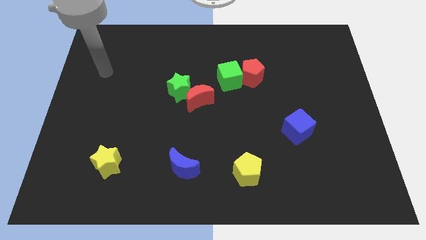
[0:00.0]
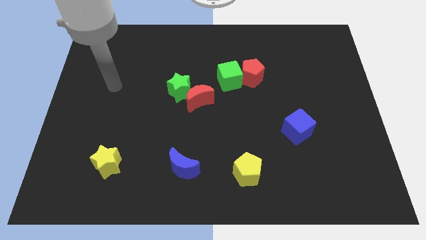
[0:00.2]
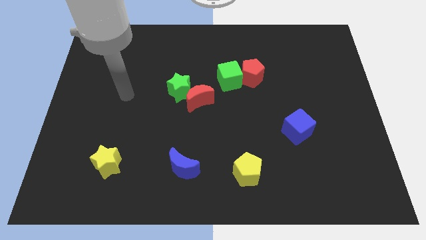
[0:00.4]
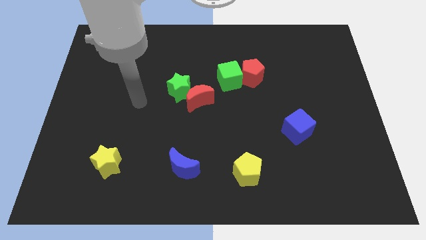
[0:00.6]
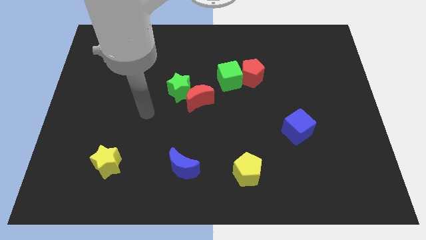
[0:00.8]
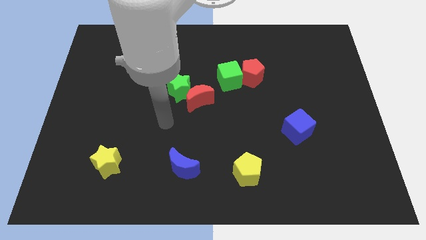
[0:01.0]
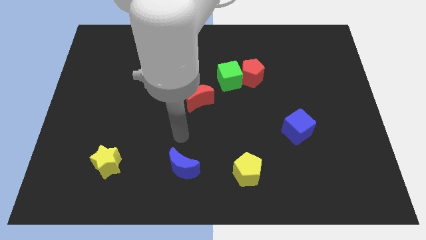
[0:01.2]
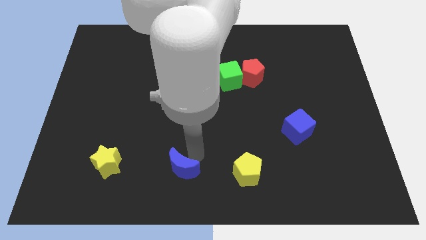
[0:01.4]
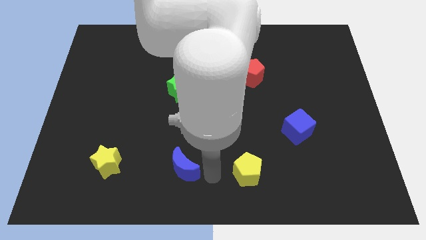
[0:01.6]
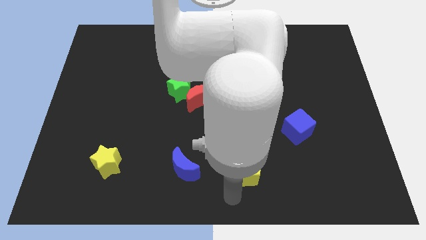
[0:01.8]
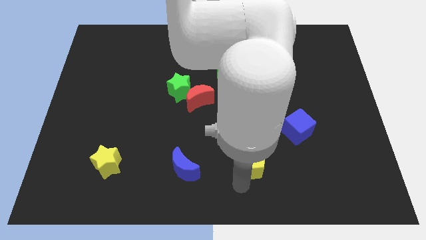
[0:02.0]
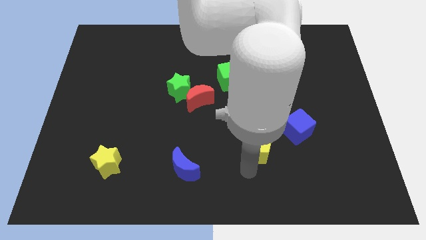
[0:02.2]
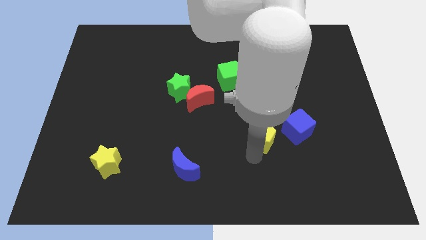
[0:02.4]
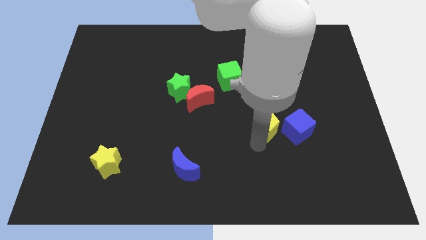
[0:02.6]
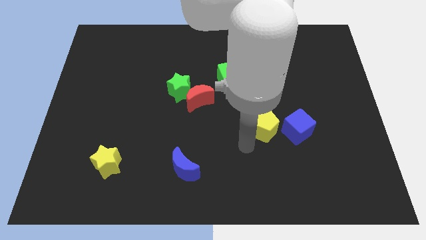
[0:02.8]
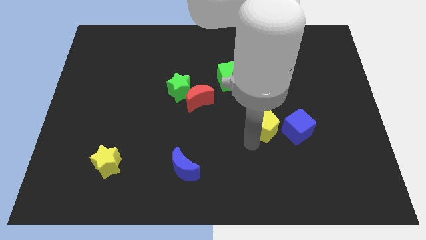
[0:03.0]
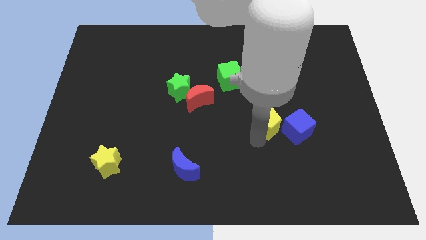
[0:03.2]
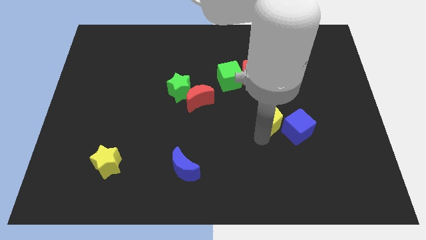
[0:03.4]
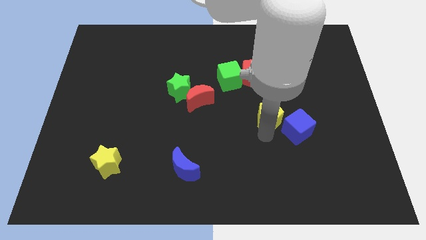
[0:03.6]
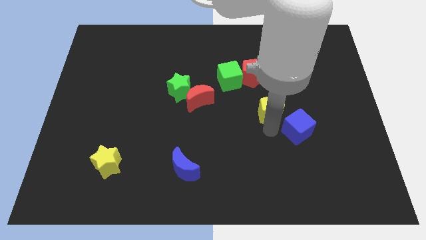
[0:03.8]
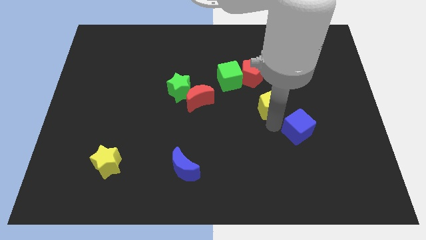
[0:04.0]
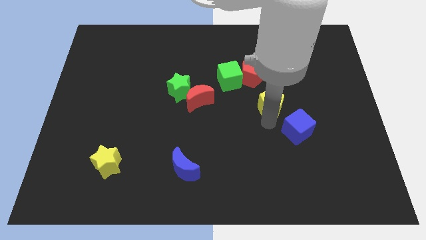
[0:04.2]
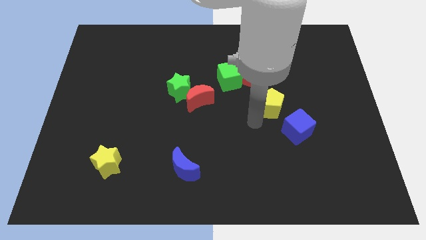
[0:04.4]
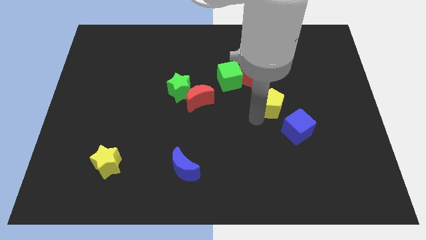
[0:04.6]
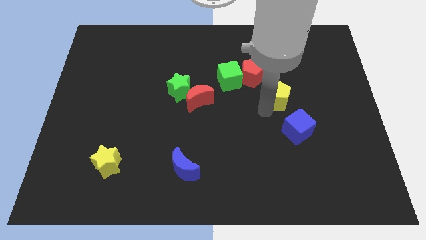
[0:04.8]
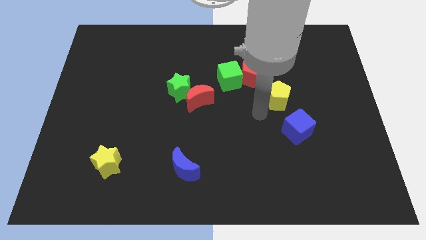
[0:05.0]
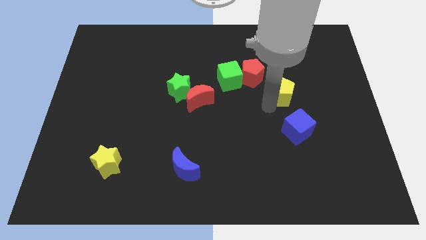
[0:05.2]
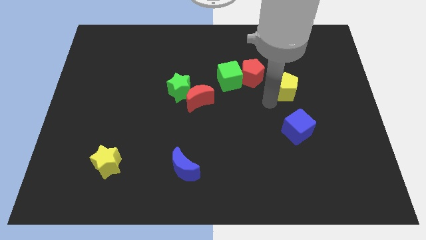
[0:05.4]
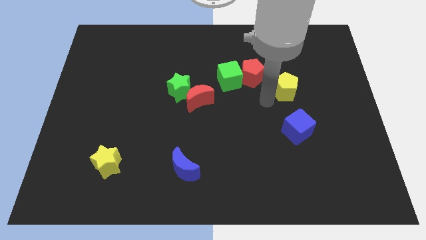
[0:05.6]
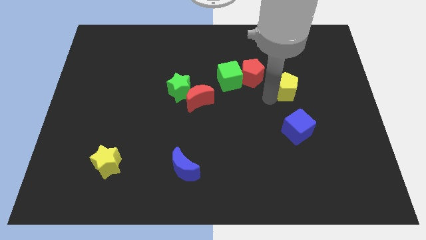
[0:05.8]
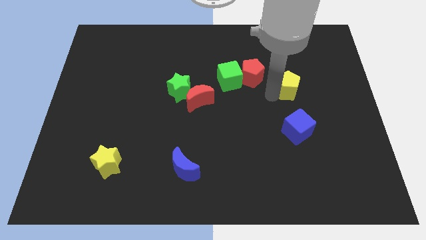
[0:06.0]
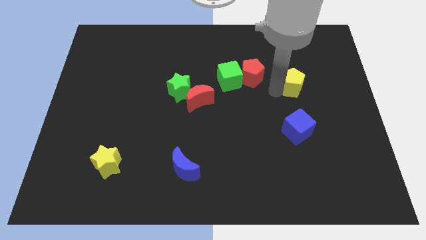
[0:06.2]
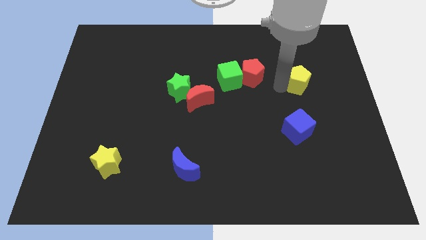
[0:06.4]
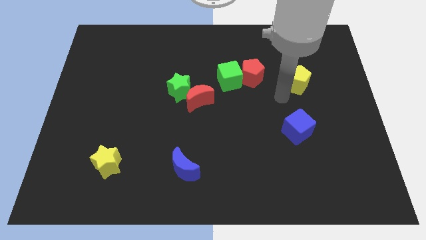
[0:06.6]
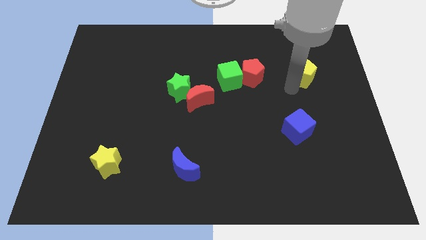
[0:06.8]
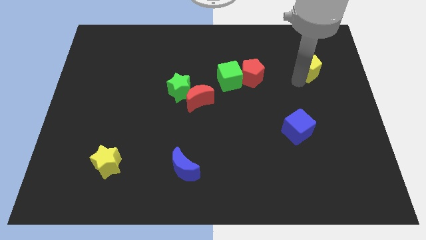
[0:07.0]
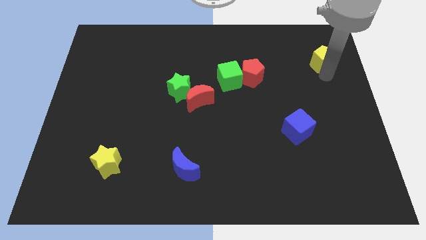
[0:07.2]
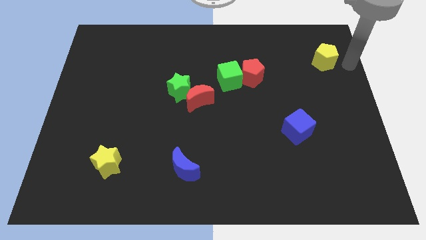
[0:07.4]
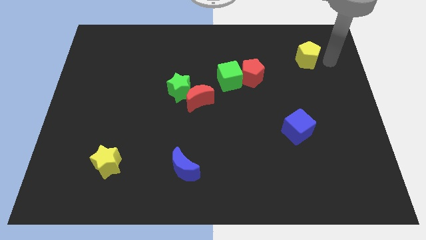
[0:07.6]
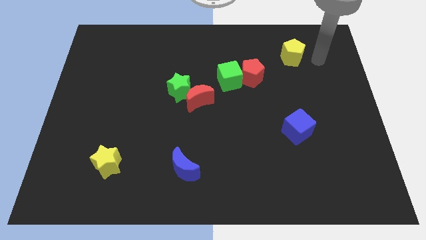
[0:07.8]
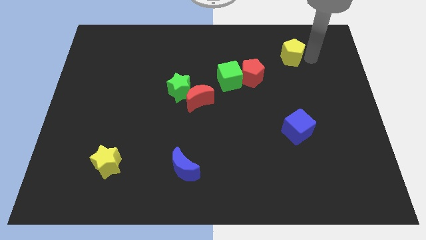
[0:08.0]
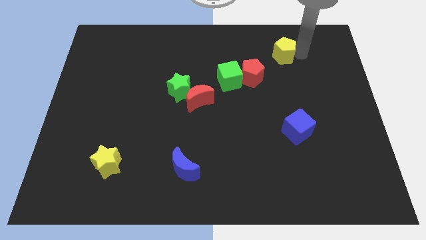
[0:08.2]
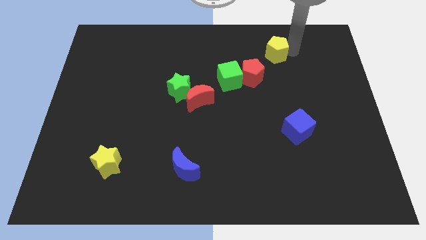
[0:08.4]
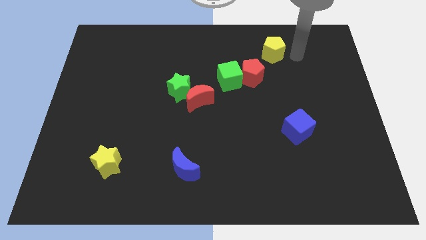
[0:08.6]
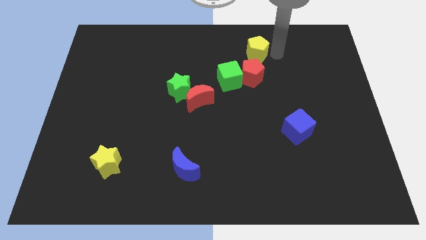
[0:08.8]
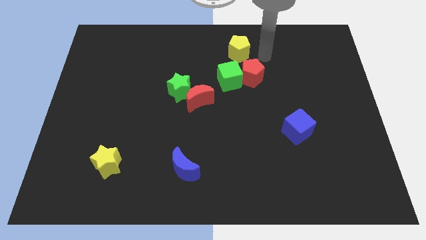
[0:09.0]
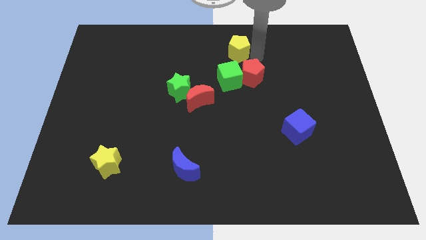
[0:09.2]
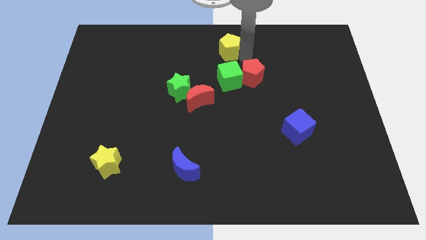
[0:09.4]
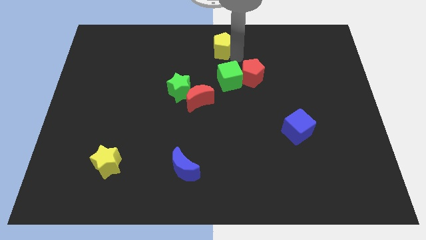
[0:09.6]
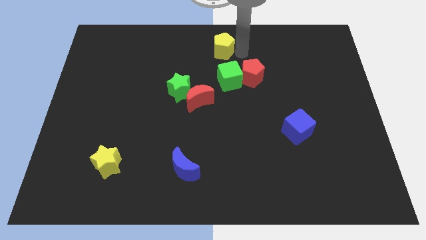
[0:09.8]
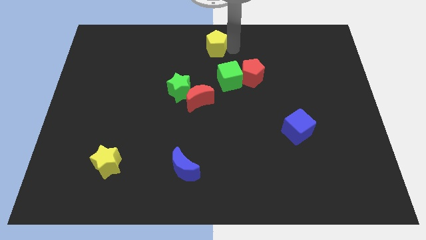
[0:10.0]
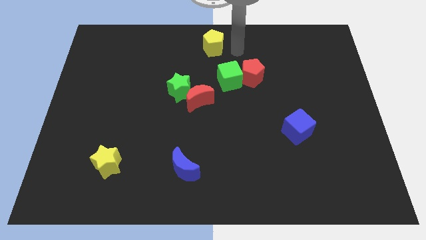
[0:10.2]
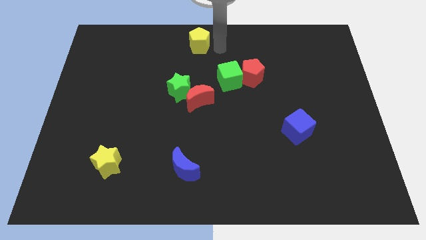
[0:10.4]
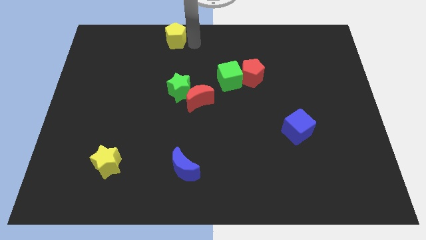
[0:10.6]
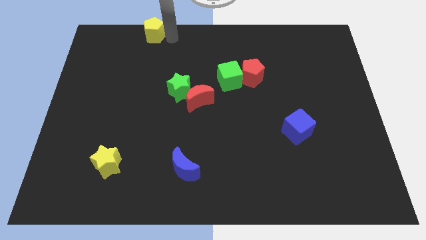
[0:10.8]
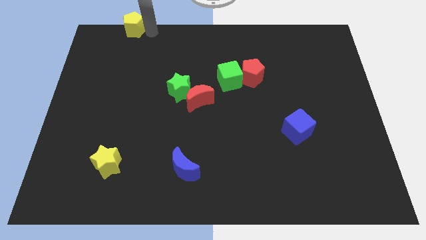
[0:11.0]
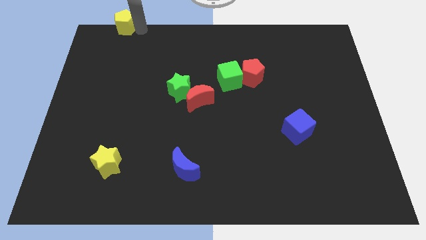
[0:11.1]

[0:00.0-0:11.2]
push the yellow pentagon to the top left

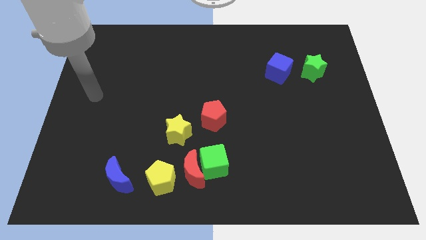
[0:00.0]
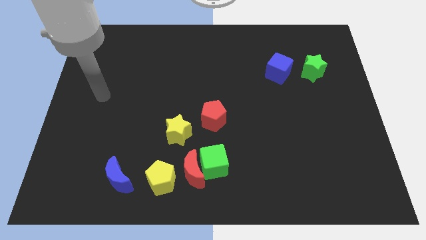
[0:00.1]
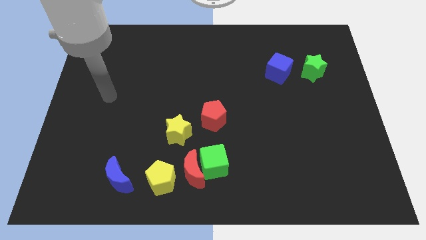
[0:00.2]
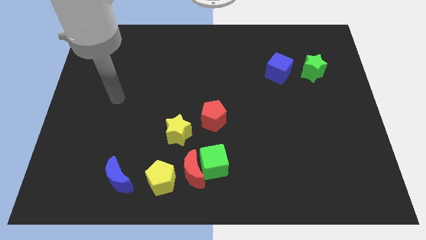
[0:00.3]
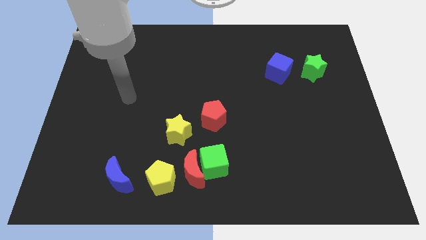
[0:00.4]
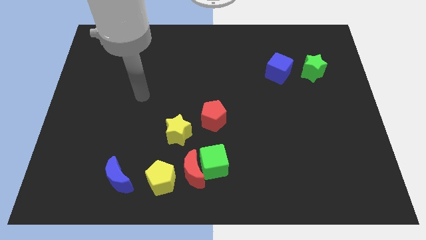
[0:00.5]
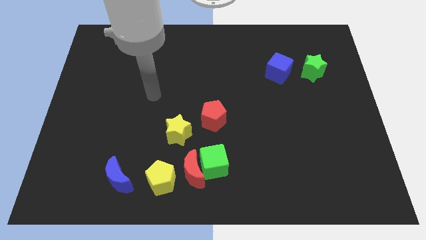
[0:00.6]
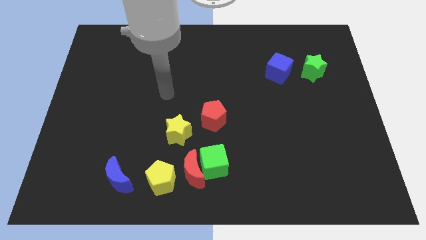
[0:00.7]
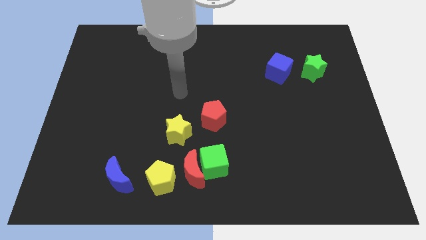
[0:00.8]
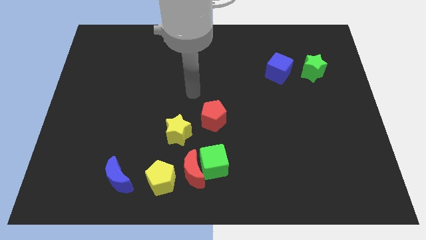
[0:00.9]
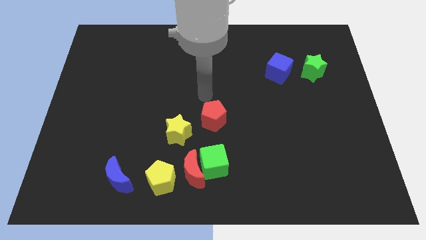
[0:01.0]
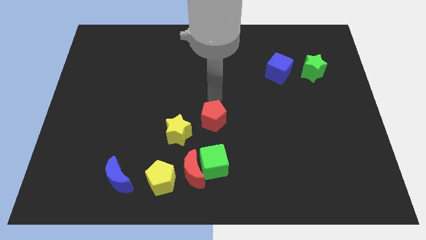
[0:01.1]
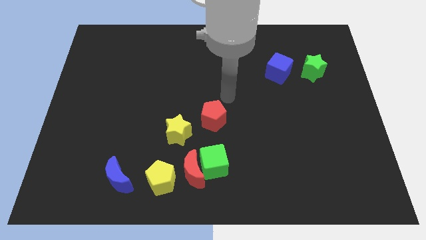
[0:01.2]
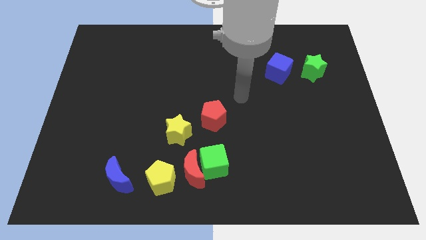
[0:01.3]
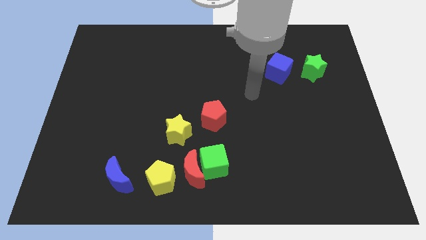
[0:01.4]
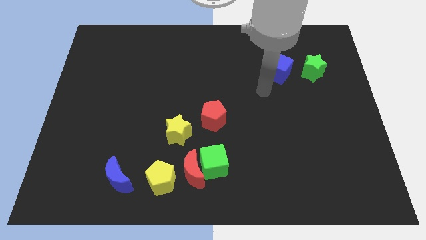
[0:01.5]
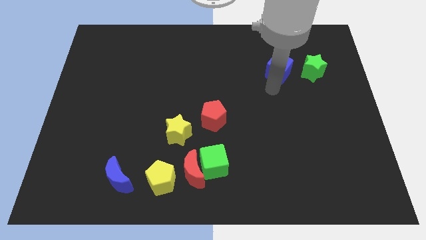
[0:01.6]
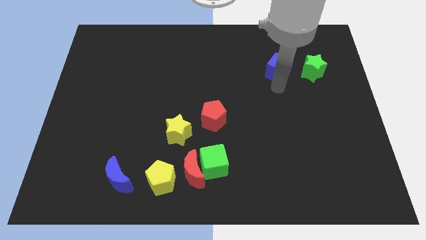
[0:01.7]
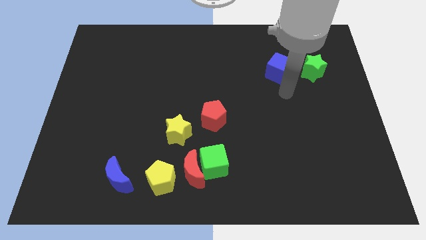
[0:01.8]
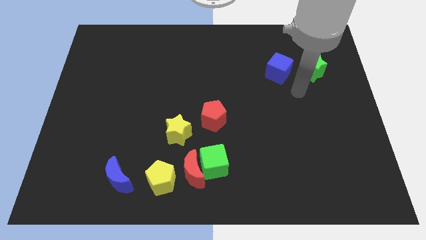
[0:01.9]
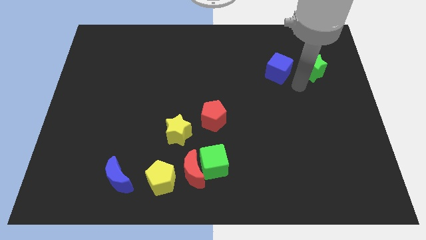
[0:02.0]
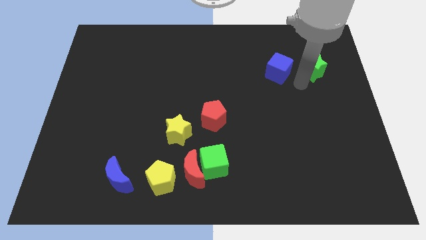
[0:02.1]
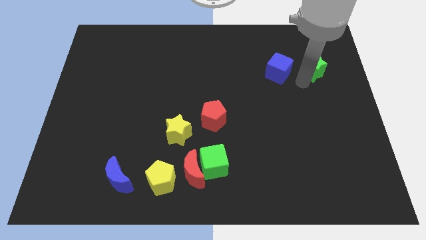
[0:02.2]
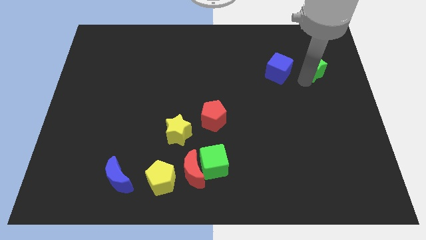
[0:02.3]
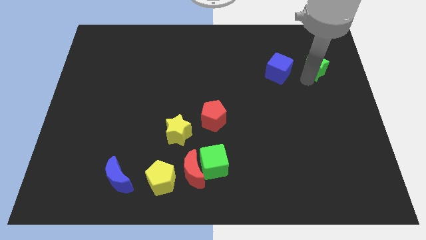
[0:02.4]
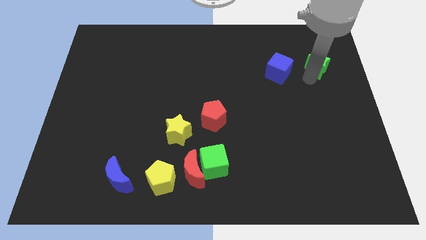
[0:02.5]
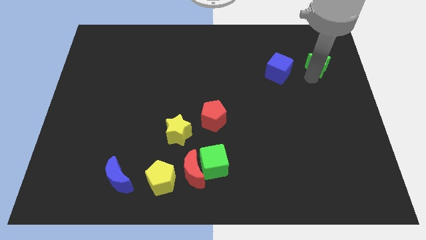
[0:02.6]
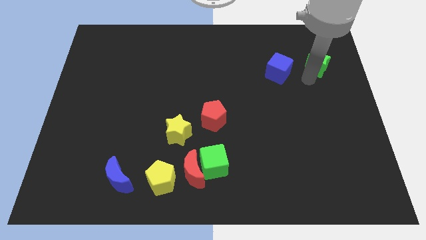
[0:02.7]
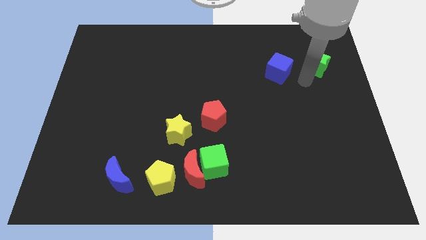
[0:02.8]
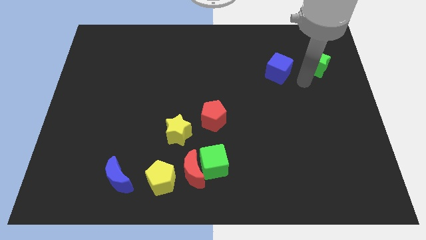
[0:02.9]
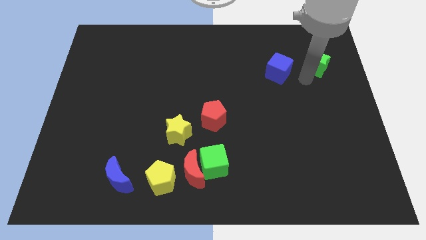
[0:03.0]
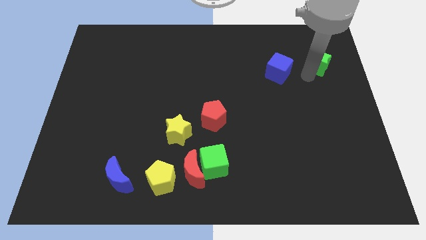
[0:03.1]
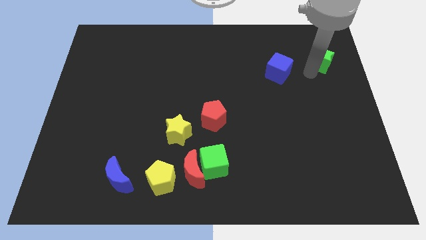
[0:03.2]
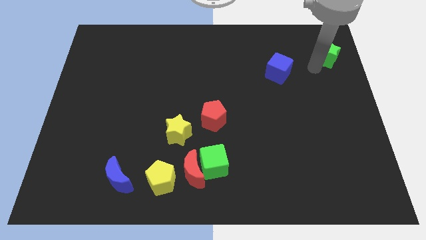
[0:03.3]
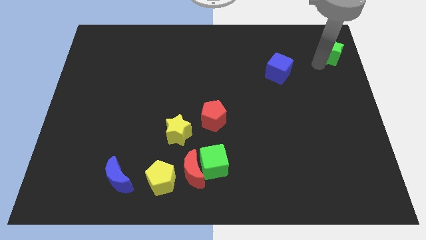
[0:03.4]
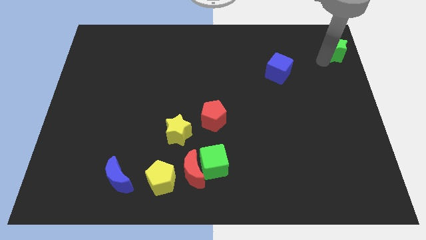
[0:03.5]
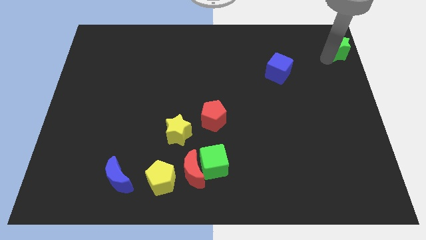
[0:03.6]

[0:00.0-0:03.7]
move the green star to the top right
